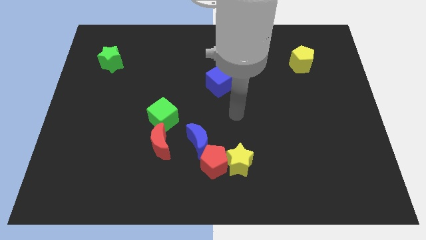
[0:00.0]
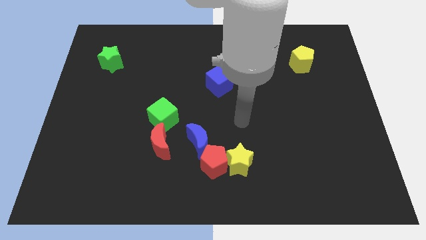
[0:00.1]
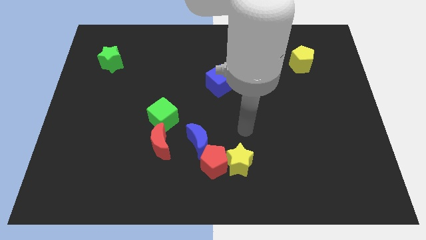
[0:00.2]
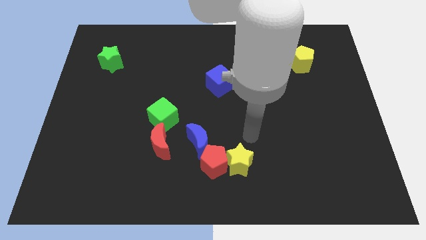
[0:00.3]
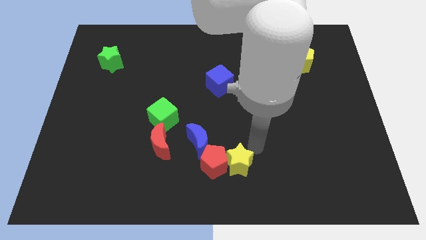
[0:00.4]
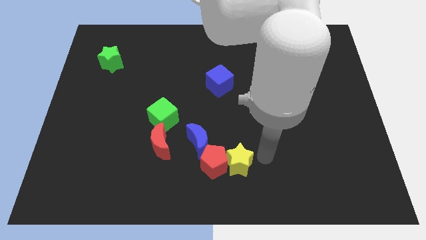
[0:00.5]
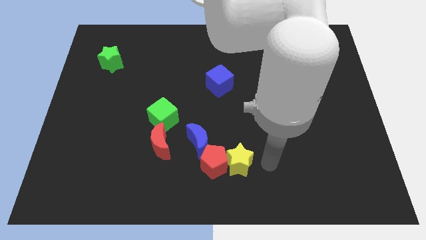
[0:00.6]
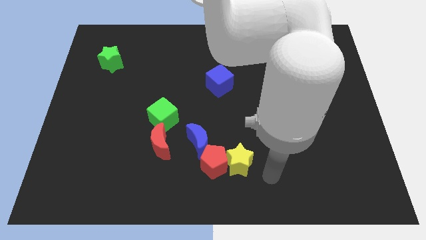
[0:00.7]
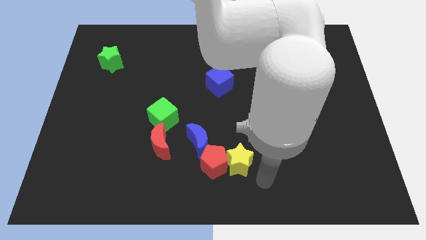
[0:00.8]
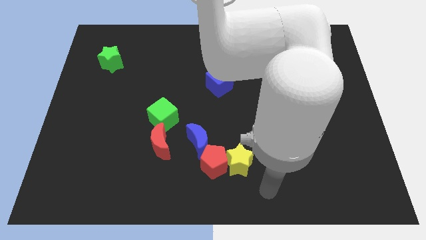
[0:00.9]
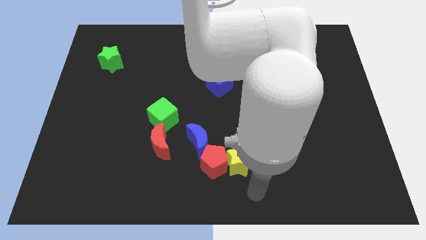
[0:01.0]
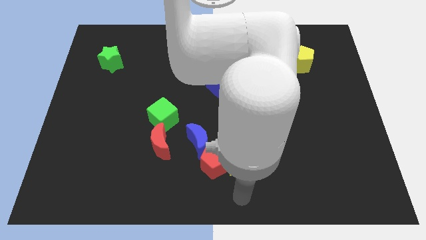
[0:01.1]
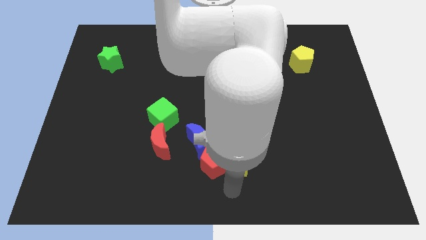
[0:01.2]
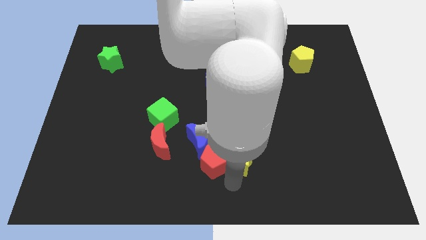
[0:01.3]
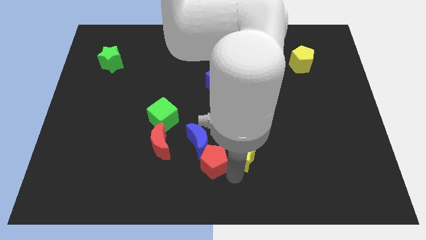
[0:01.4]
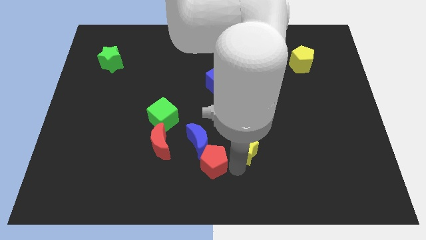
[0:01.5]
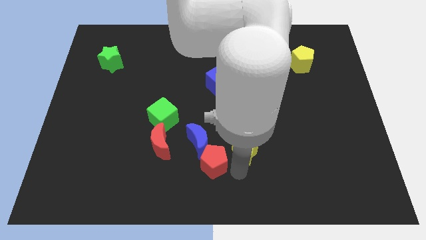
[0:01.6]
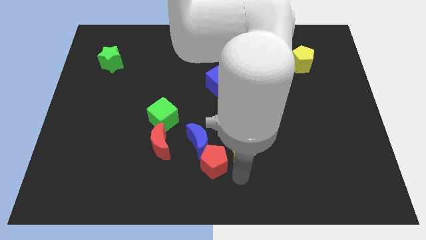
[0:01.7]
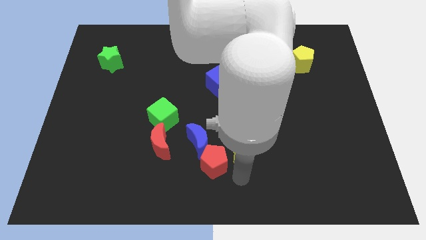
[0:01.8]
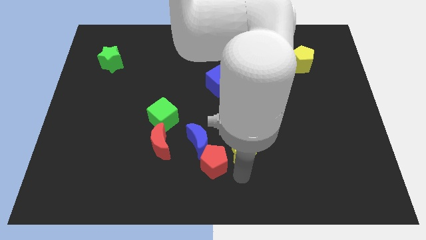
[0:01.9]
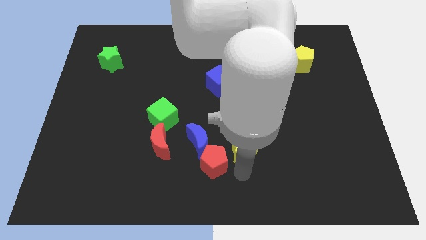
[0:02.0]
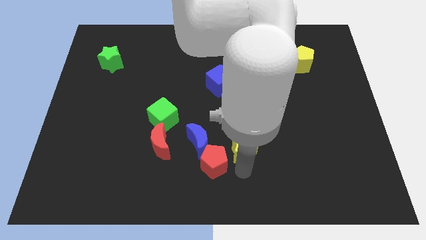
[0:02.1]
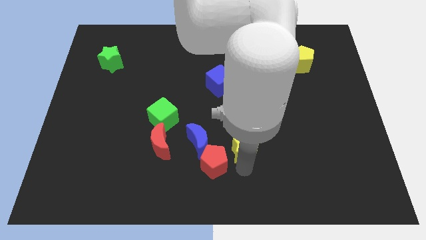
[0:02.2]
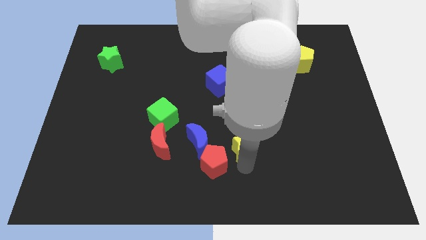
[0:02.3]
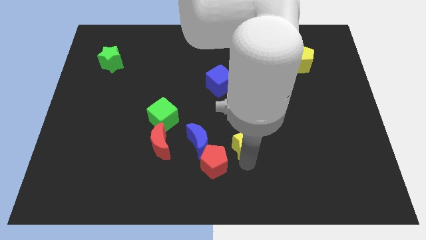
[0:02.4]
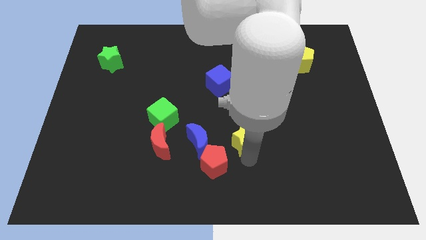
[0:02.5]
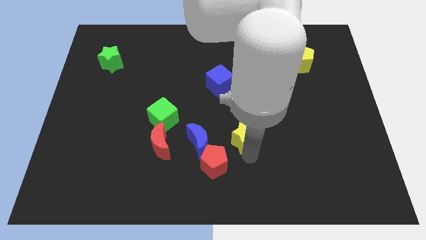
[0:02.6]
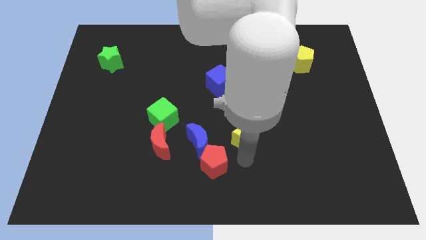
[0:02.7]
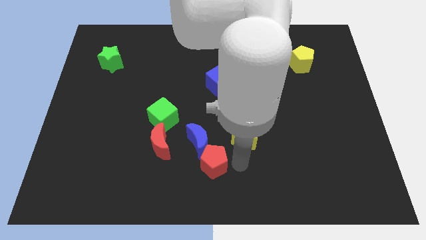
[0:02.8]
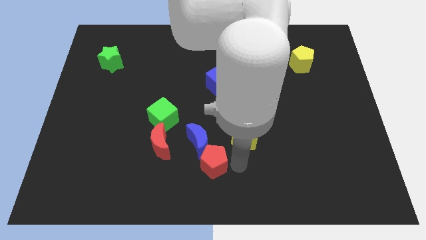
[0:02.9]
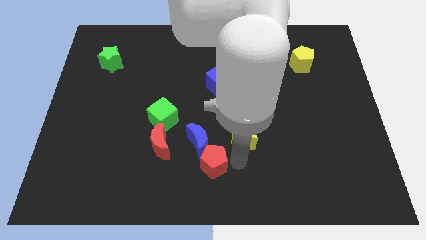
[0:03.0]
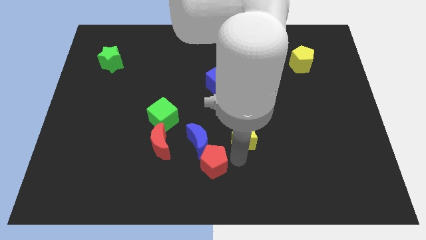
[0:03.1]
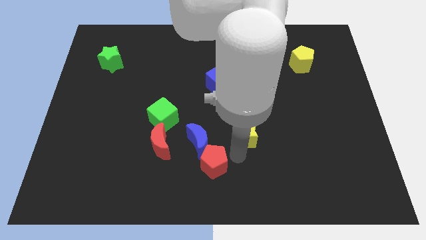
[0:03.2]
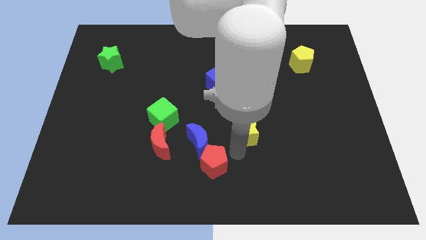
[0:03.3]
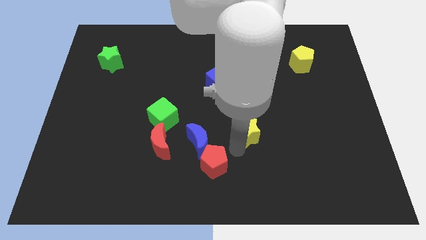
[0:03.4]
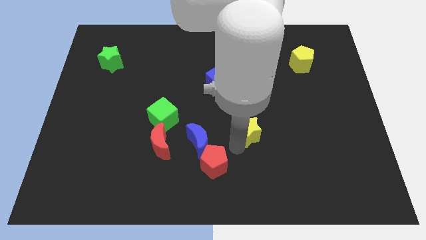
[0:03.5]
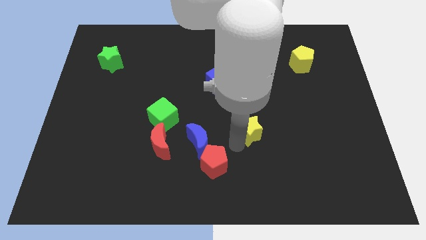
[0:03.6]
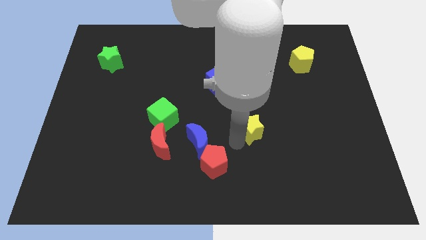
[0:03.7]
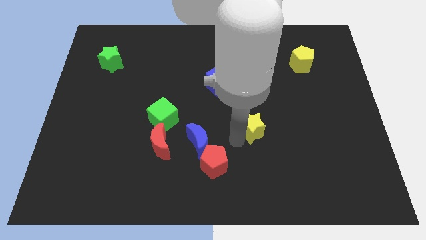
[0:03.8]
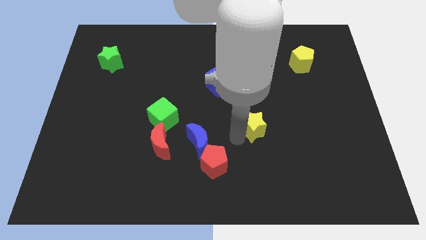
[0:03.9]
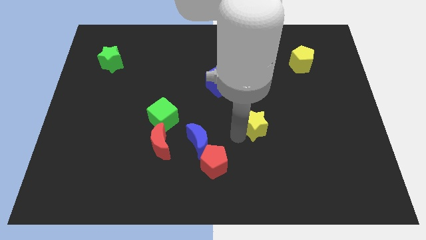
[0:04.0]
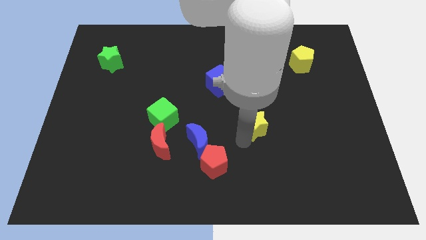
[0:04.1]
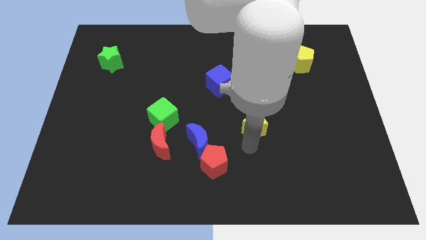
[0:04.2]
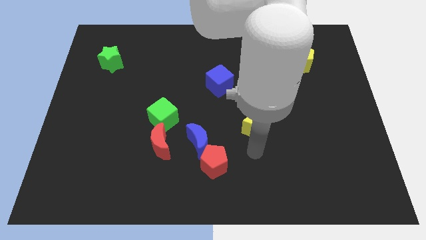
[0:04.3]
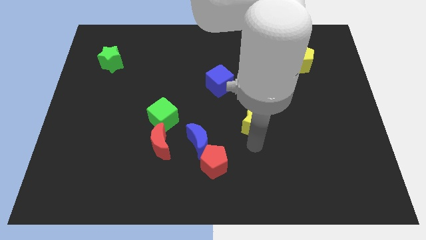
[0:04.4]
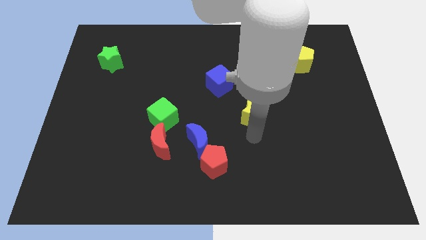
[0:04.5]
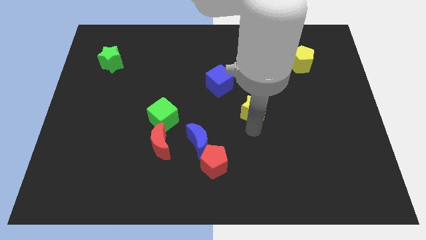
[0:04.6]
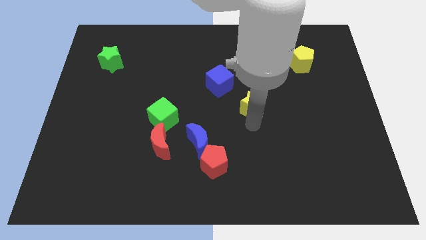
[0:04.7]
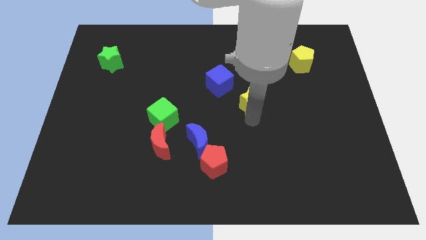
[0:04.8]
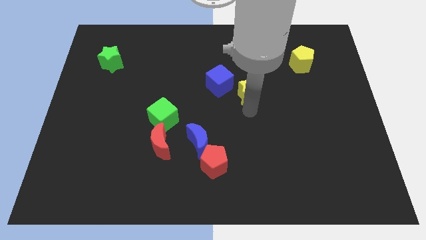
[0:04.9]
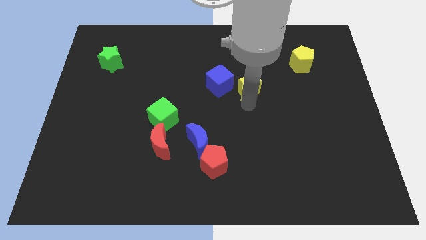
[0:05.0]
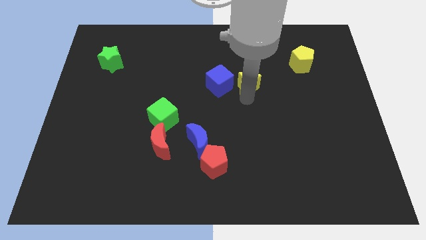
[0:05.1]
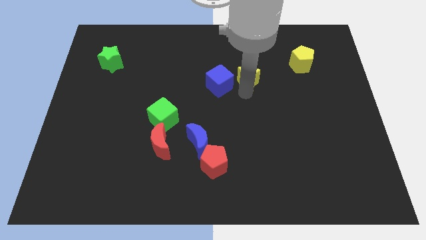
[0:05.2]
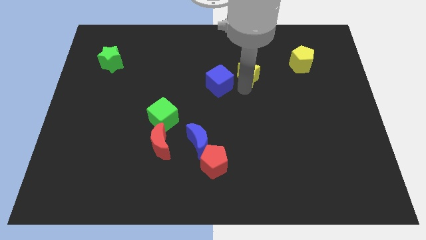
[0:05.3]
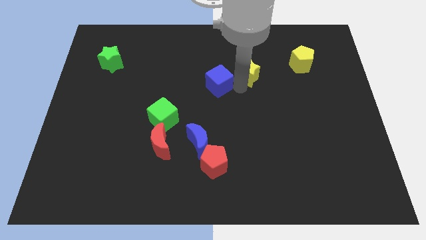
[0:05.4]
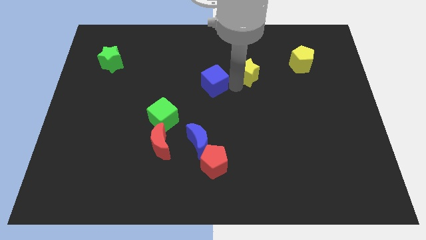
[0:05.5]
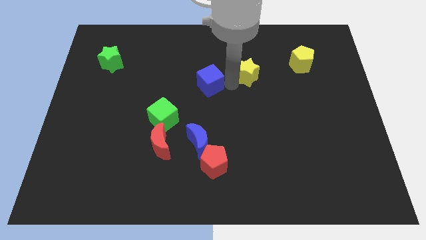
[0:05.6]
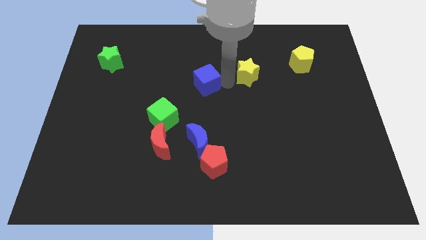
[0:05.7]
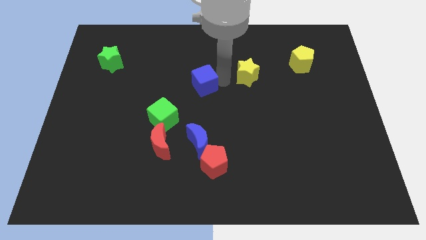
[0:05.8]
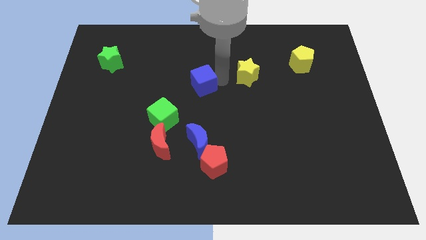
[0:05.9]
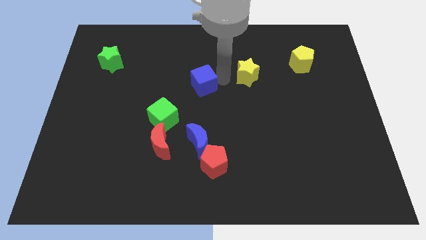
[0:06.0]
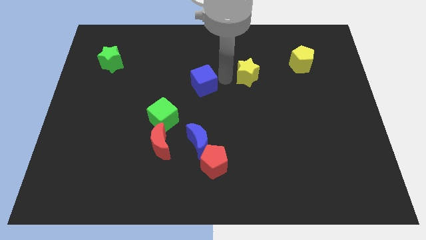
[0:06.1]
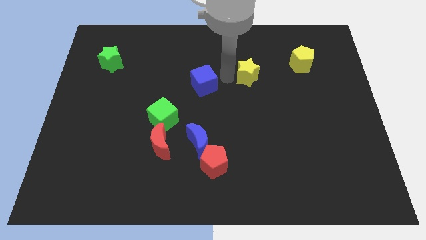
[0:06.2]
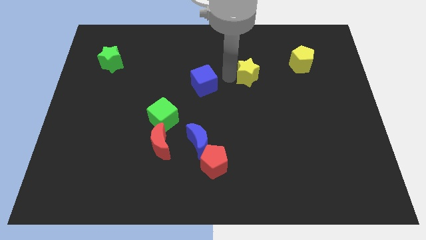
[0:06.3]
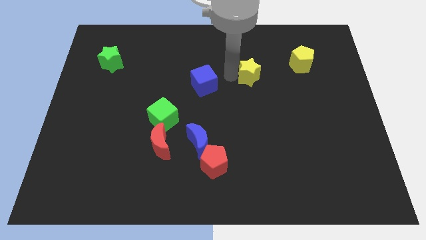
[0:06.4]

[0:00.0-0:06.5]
move the yellow star to the left of the yellow pentagon

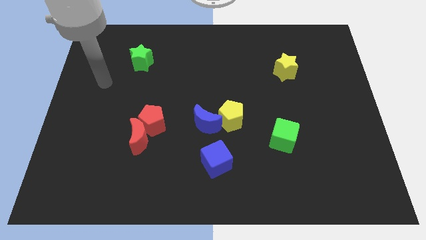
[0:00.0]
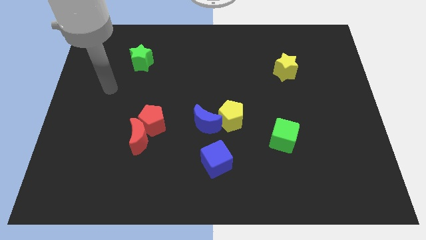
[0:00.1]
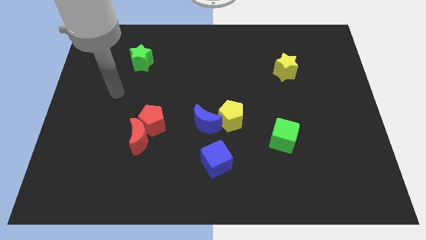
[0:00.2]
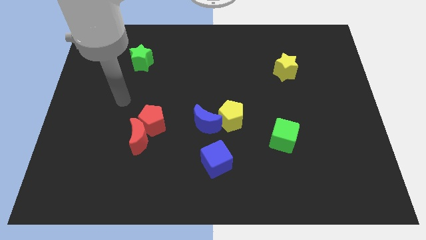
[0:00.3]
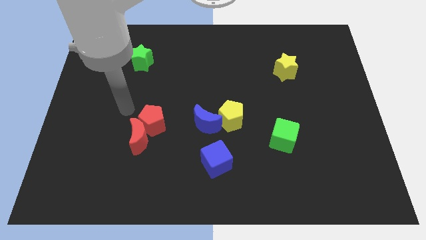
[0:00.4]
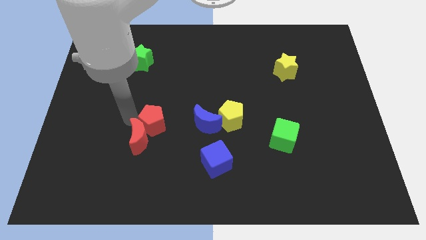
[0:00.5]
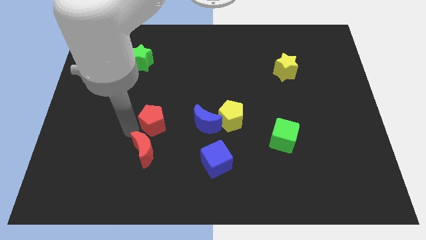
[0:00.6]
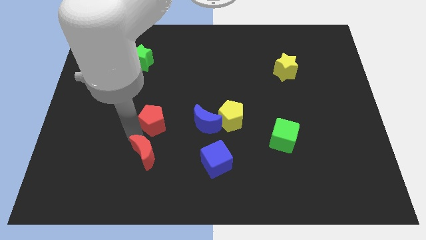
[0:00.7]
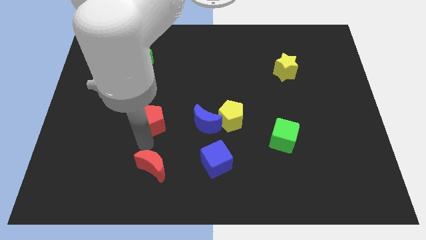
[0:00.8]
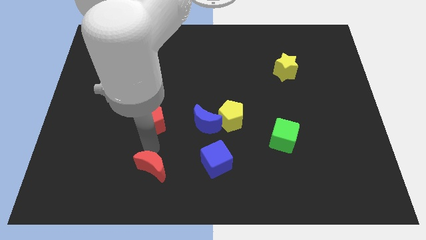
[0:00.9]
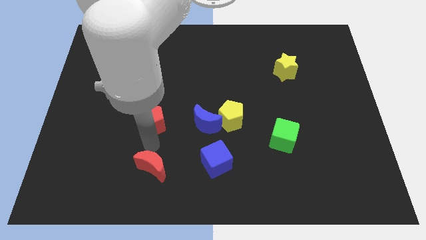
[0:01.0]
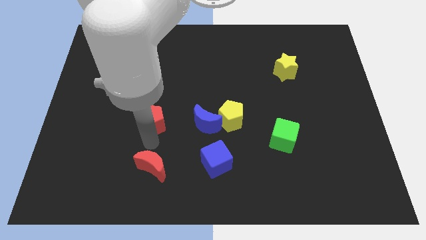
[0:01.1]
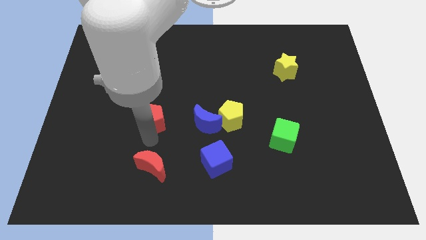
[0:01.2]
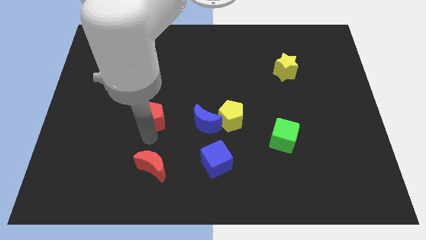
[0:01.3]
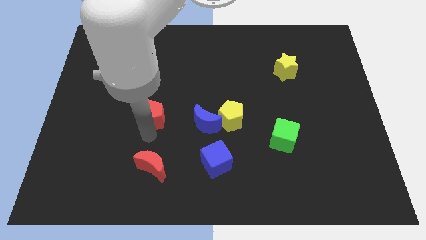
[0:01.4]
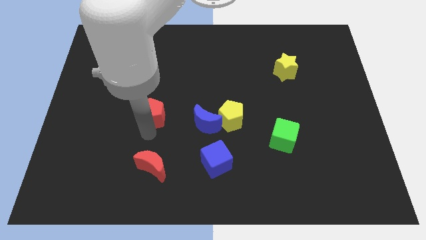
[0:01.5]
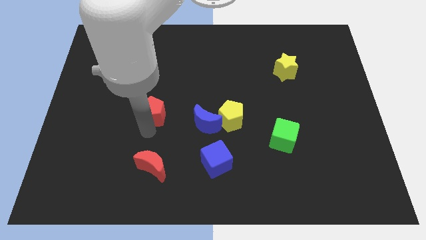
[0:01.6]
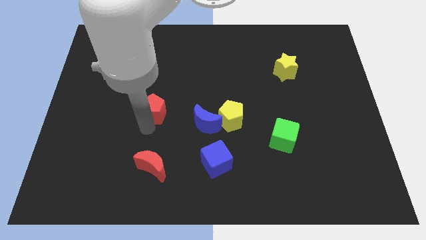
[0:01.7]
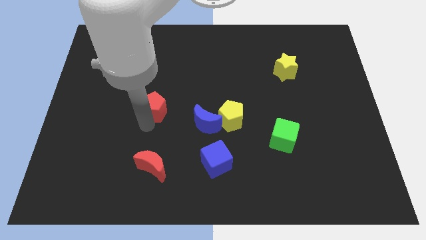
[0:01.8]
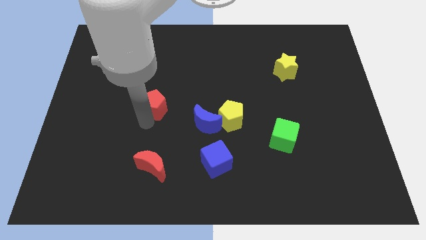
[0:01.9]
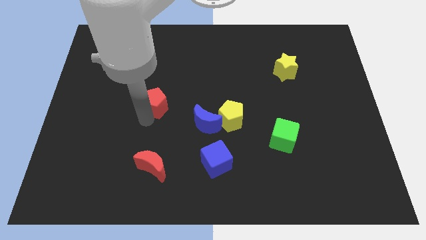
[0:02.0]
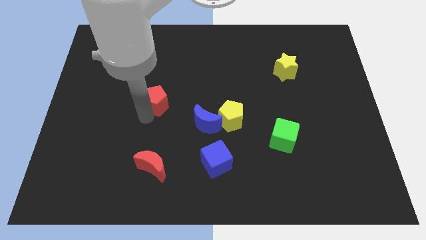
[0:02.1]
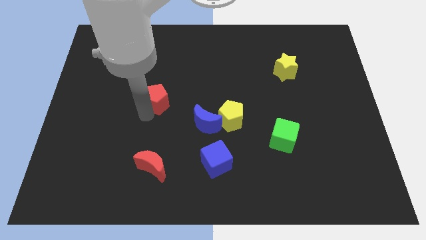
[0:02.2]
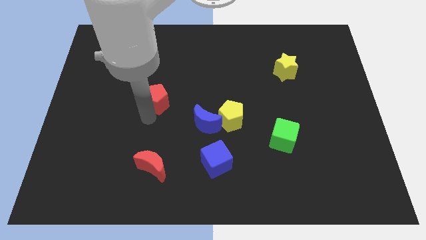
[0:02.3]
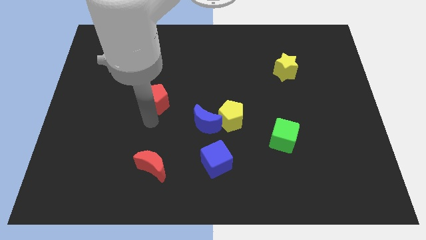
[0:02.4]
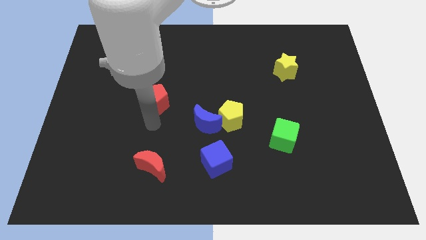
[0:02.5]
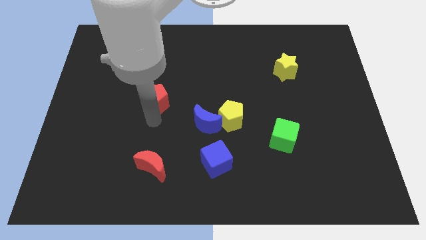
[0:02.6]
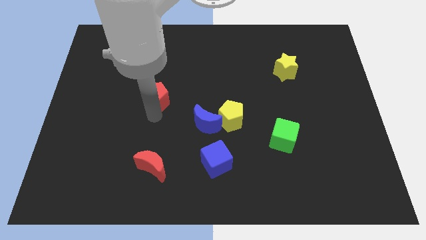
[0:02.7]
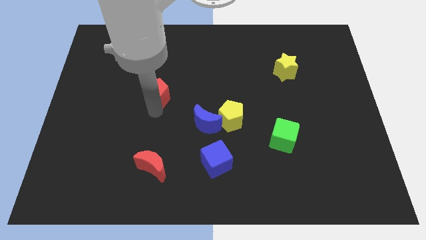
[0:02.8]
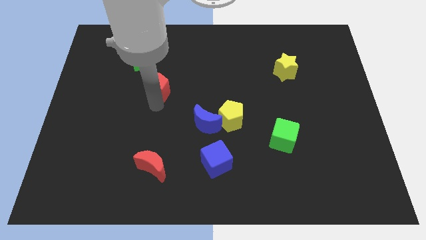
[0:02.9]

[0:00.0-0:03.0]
slide the red pentagon to the bottom right side of the green star
